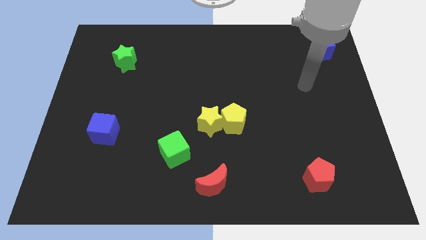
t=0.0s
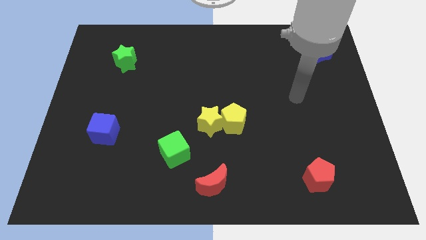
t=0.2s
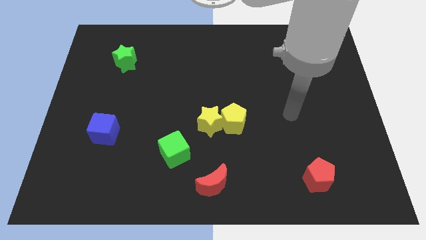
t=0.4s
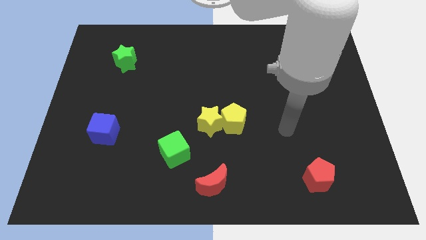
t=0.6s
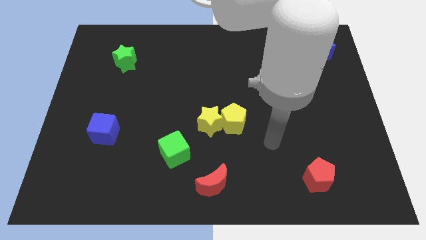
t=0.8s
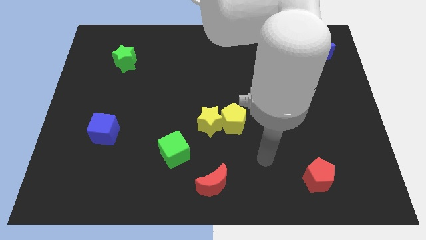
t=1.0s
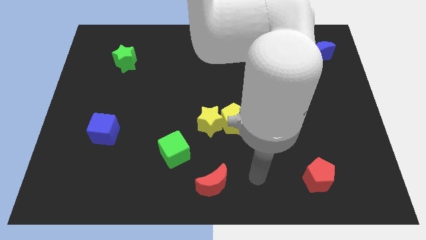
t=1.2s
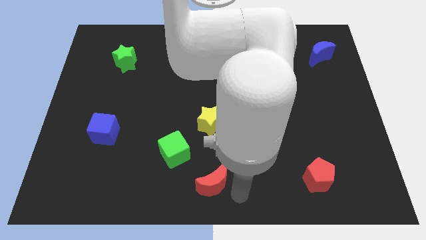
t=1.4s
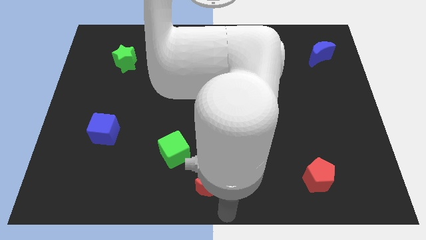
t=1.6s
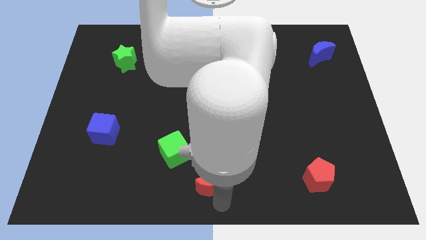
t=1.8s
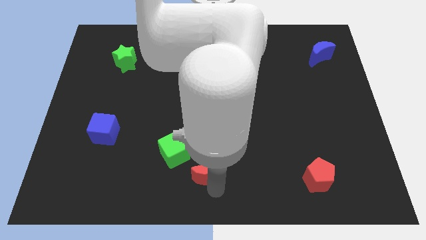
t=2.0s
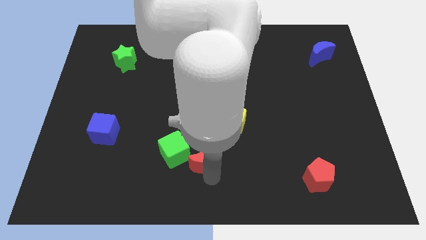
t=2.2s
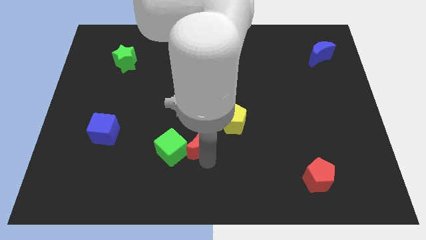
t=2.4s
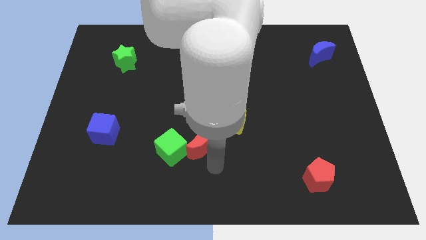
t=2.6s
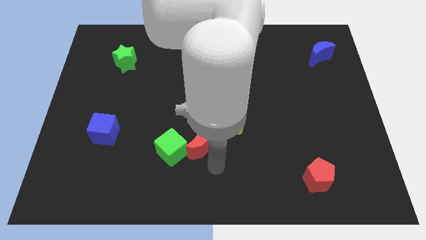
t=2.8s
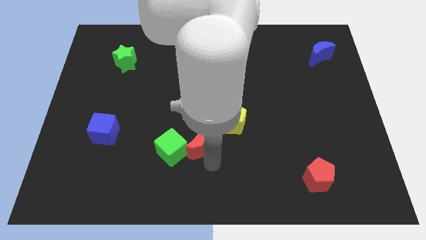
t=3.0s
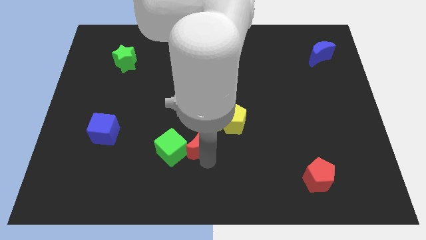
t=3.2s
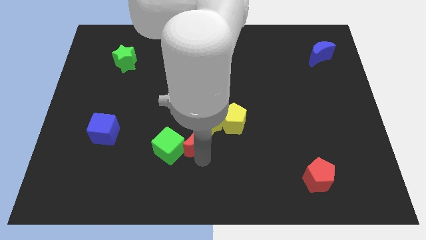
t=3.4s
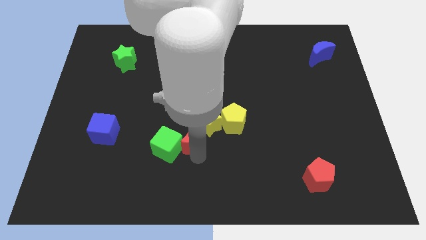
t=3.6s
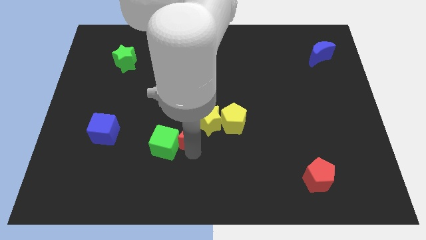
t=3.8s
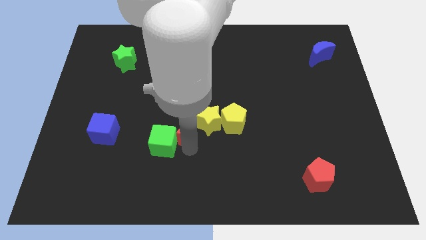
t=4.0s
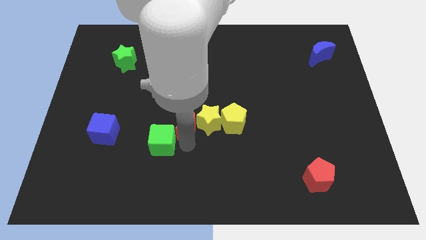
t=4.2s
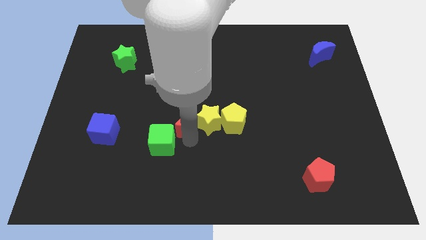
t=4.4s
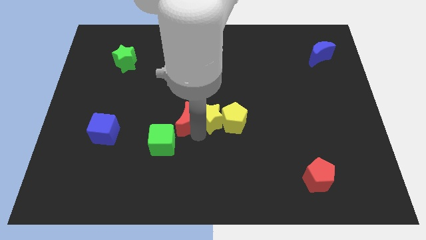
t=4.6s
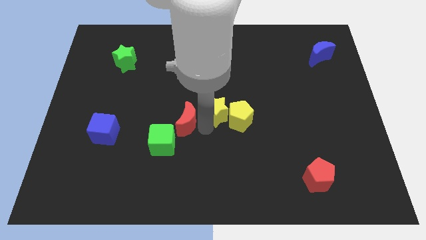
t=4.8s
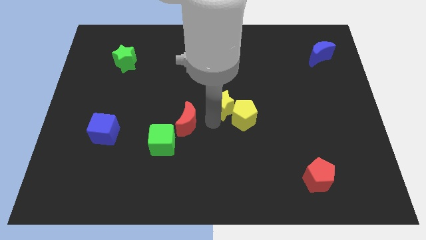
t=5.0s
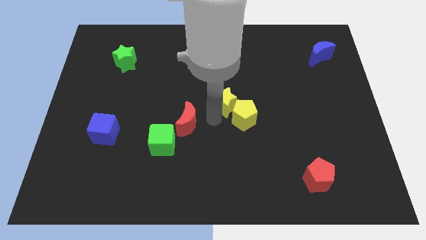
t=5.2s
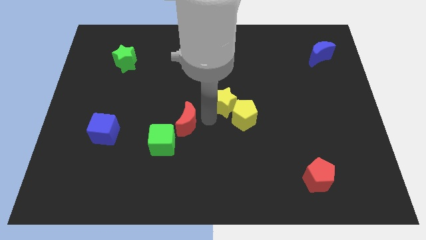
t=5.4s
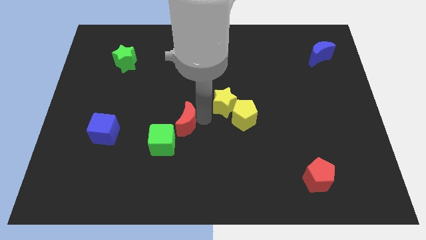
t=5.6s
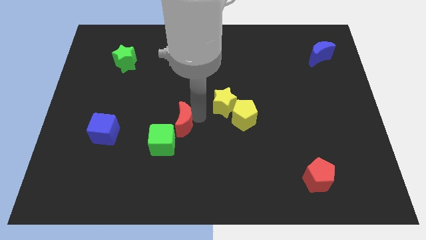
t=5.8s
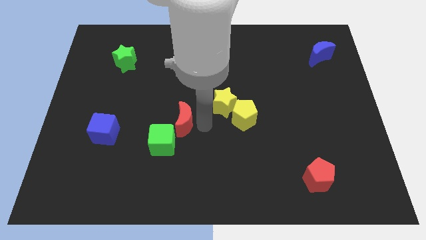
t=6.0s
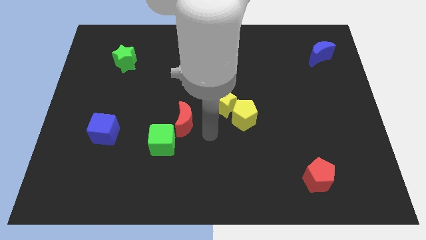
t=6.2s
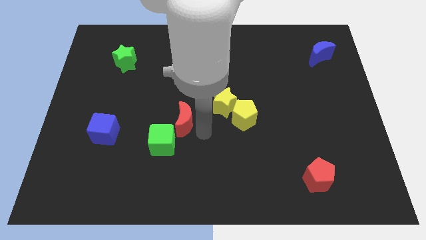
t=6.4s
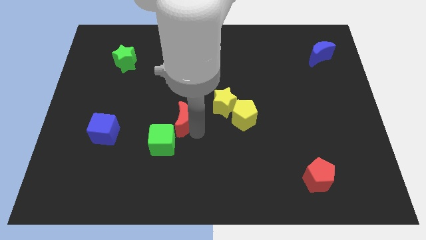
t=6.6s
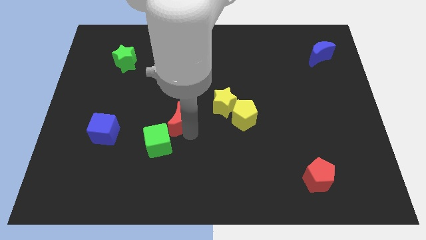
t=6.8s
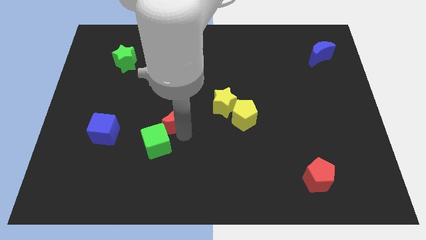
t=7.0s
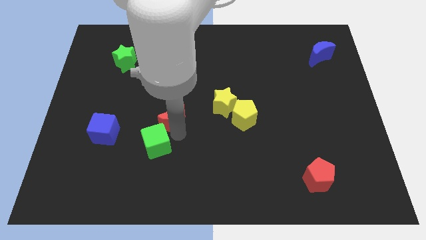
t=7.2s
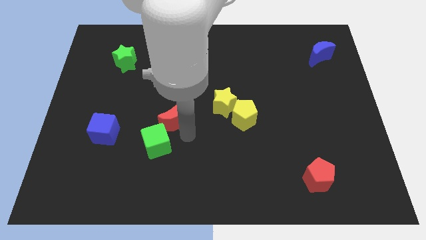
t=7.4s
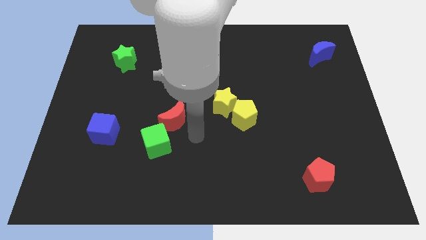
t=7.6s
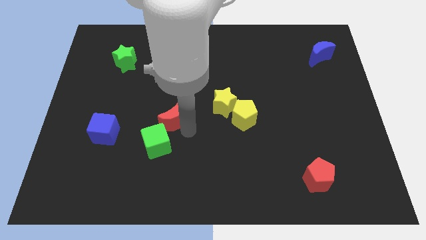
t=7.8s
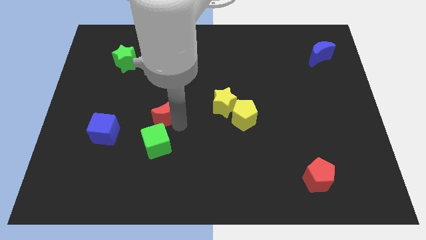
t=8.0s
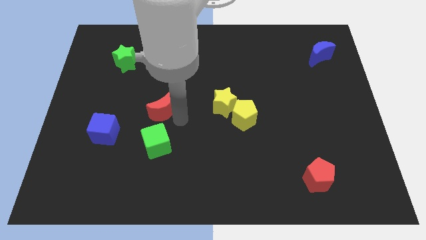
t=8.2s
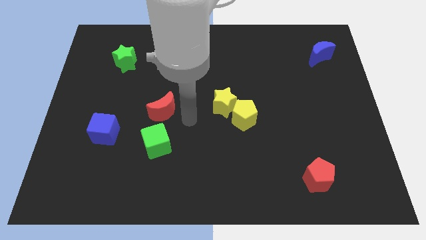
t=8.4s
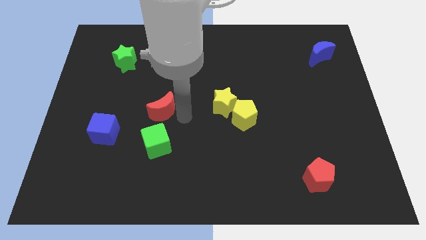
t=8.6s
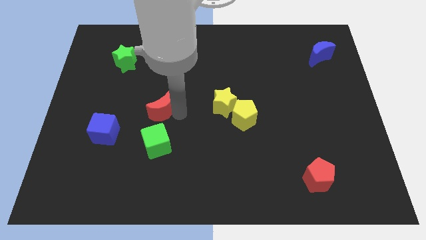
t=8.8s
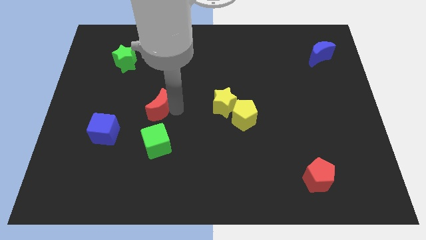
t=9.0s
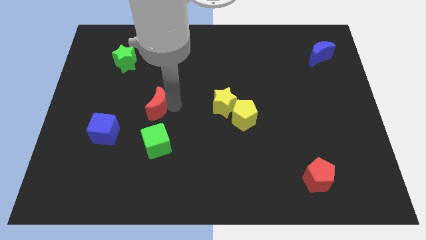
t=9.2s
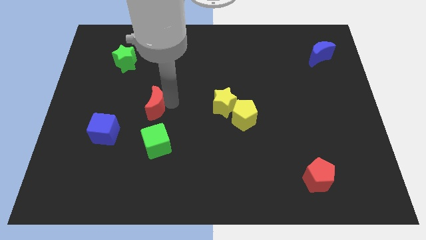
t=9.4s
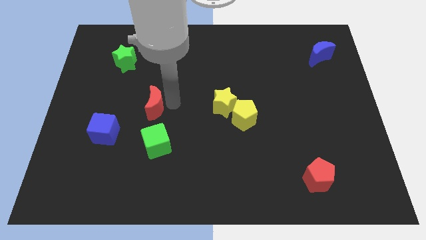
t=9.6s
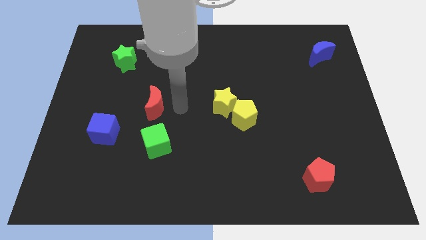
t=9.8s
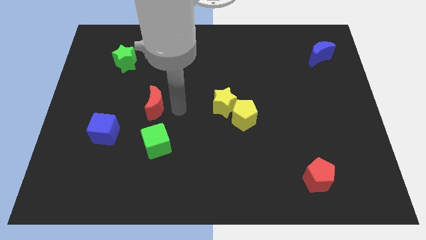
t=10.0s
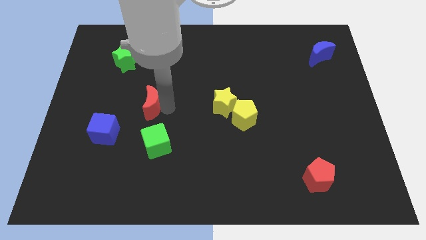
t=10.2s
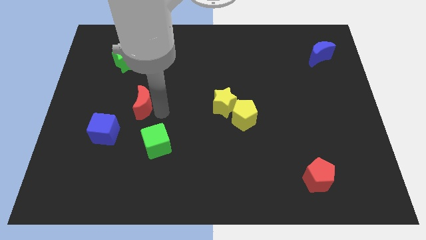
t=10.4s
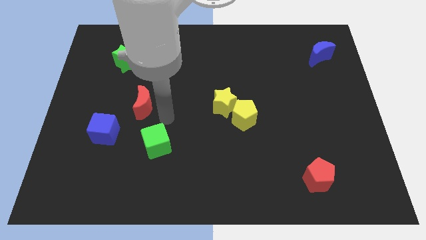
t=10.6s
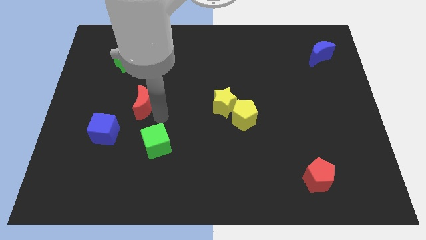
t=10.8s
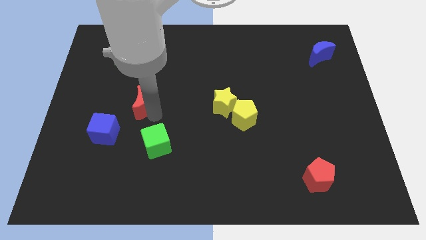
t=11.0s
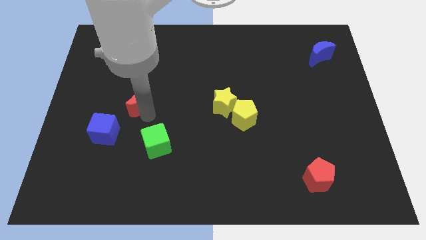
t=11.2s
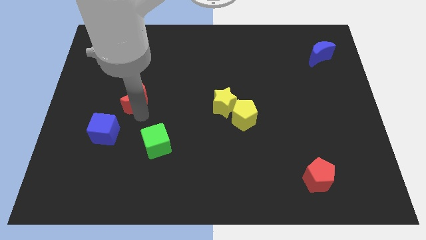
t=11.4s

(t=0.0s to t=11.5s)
put the red moon below the green star

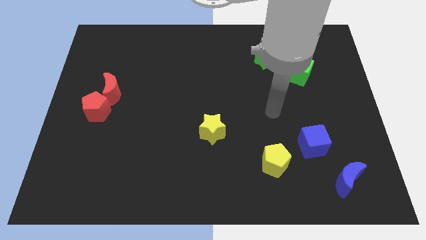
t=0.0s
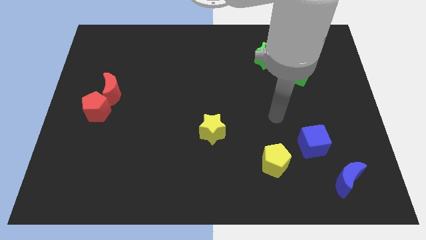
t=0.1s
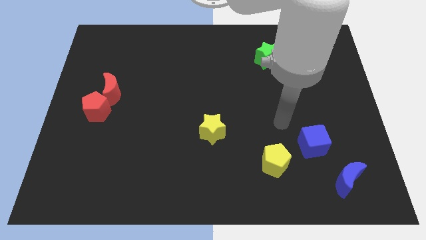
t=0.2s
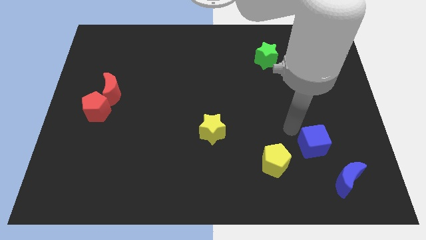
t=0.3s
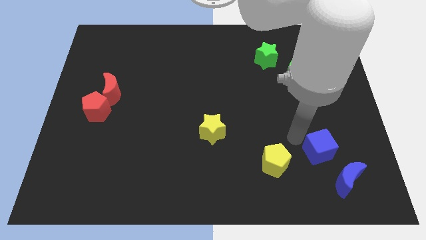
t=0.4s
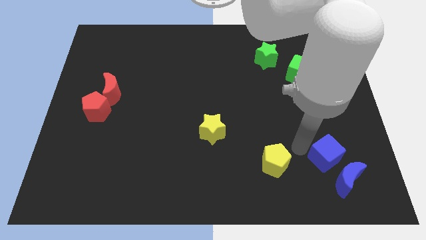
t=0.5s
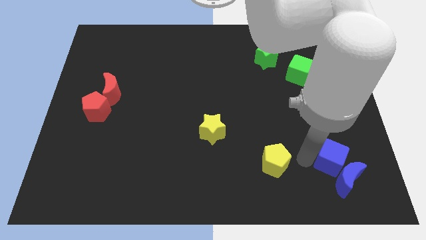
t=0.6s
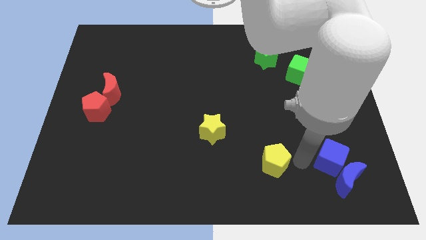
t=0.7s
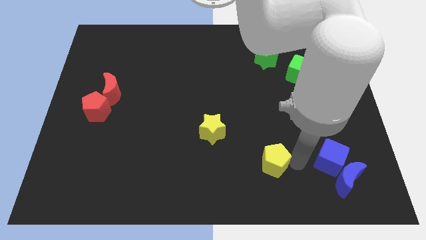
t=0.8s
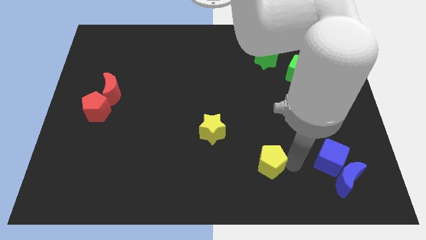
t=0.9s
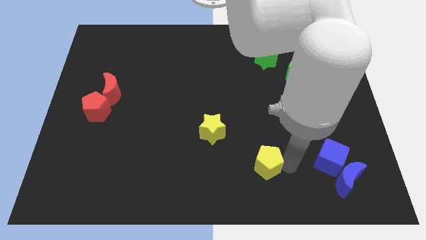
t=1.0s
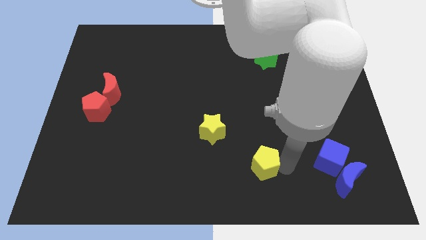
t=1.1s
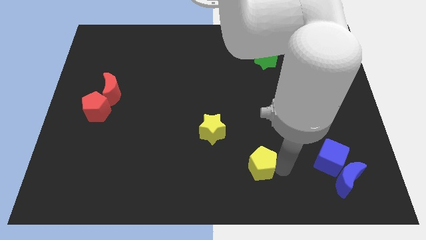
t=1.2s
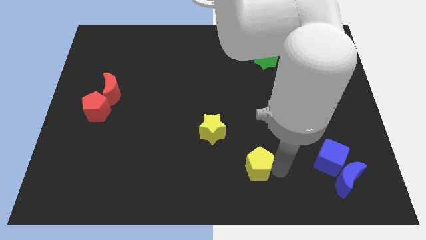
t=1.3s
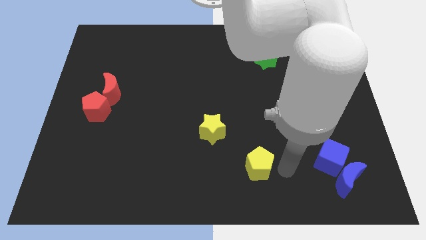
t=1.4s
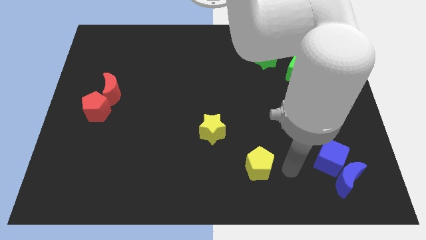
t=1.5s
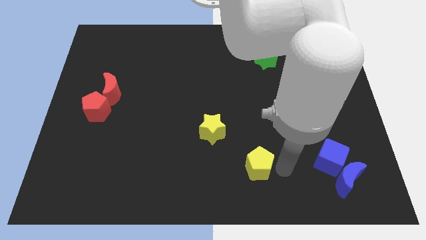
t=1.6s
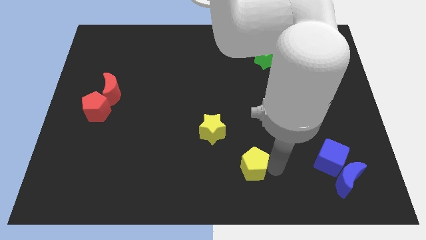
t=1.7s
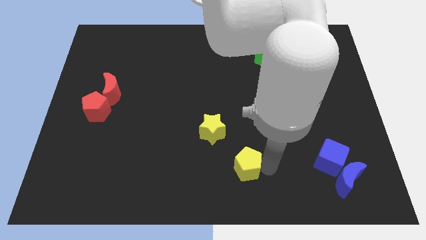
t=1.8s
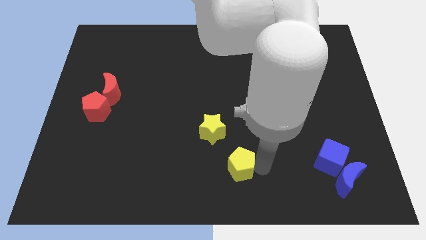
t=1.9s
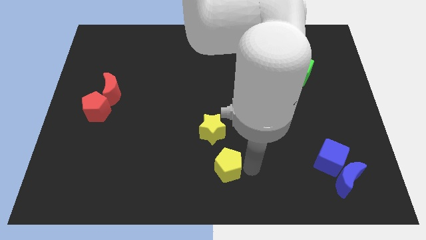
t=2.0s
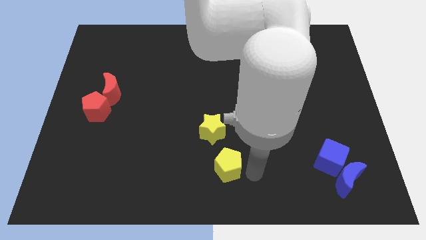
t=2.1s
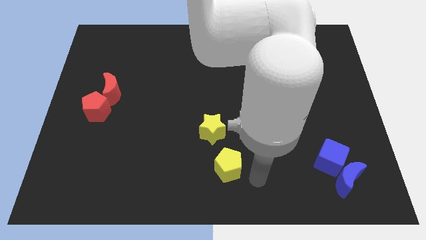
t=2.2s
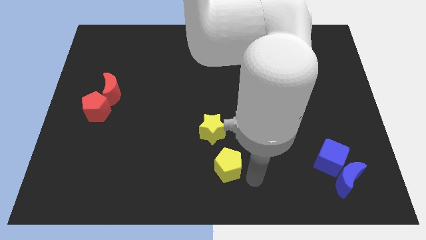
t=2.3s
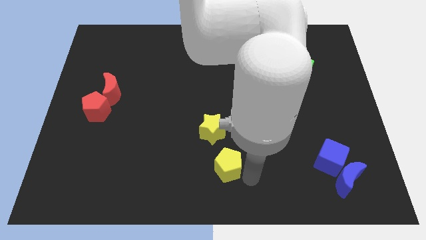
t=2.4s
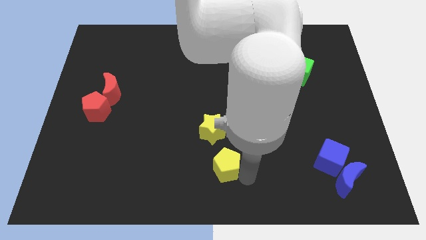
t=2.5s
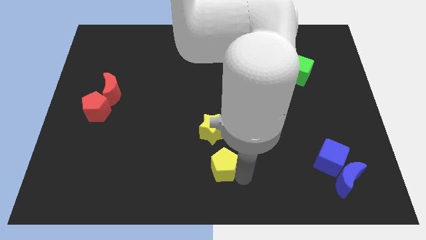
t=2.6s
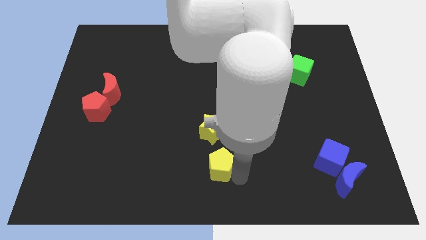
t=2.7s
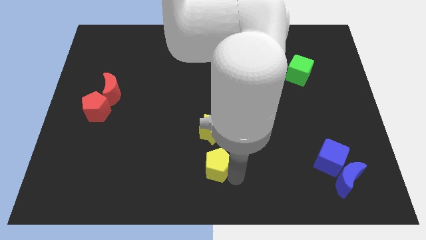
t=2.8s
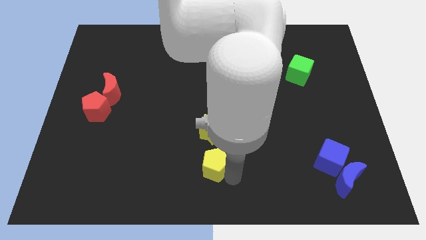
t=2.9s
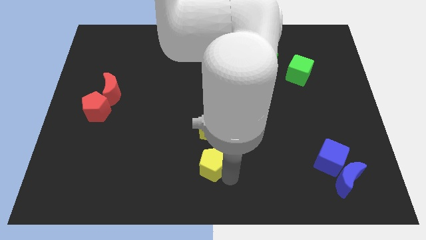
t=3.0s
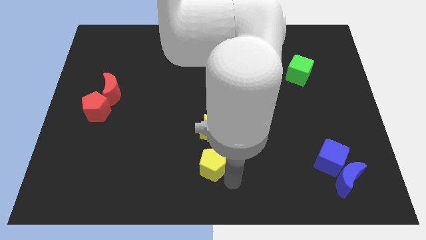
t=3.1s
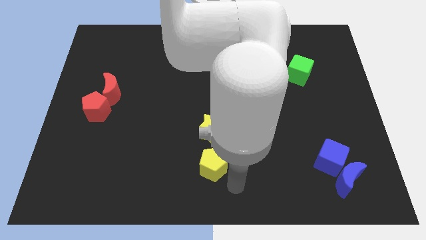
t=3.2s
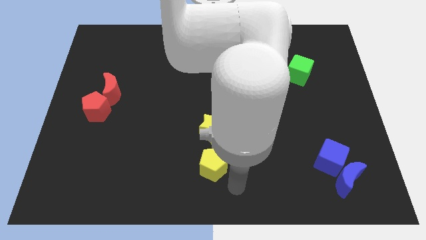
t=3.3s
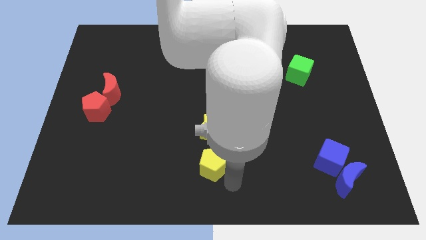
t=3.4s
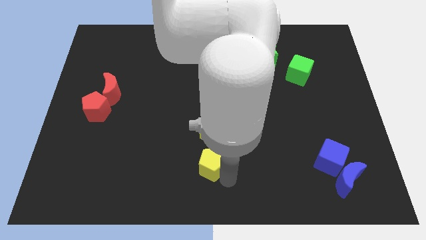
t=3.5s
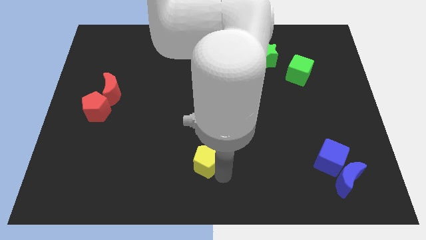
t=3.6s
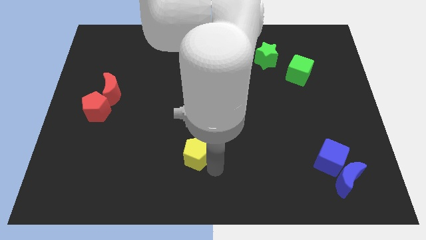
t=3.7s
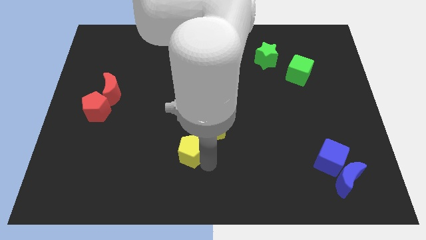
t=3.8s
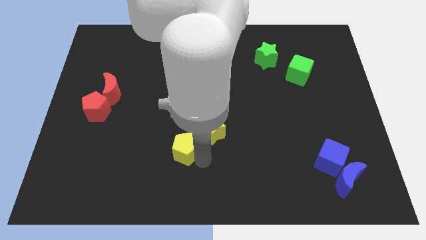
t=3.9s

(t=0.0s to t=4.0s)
slide the yellow pentagon left of the yellow star
